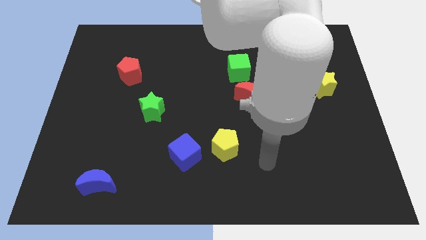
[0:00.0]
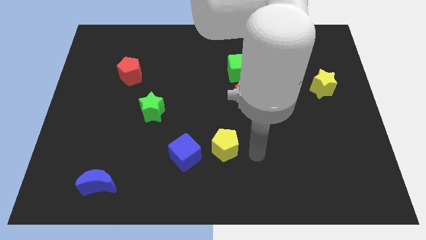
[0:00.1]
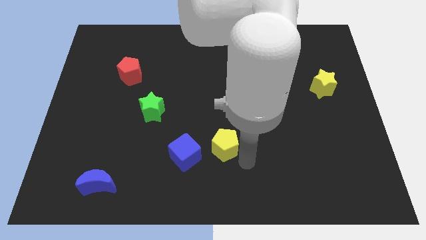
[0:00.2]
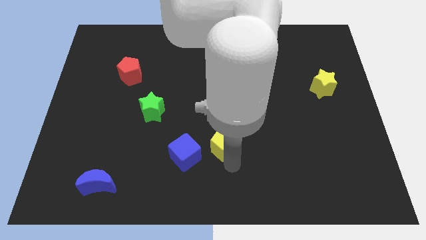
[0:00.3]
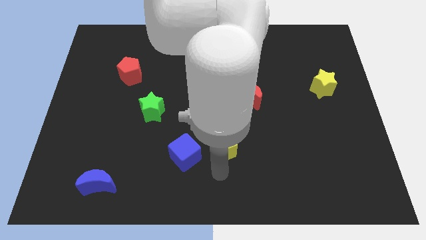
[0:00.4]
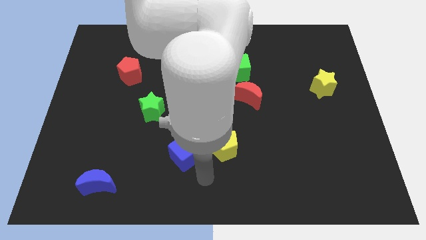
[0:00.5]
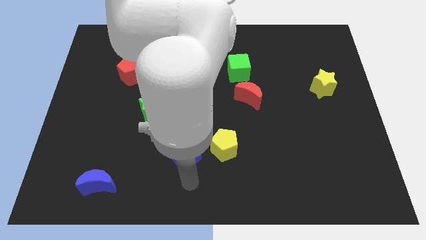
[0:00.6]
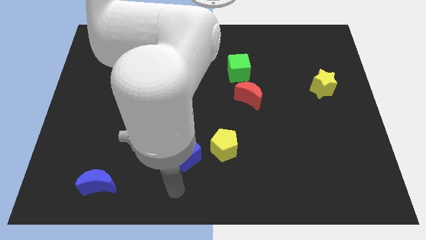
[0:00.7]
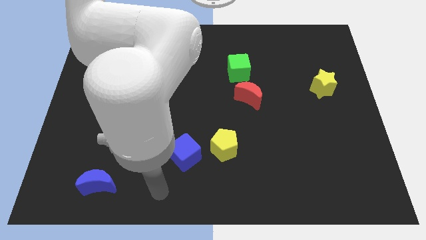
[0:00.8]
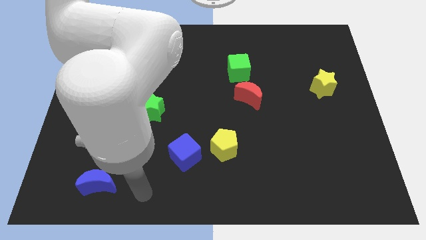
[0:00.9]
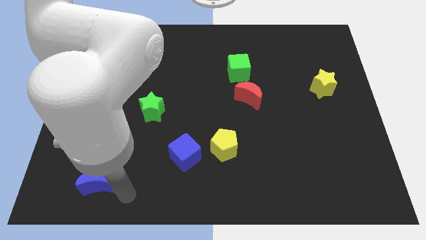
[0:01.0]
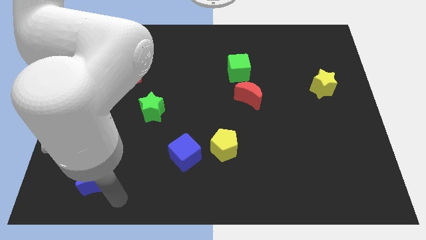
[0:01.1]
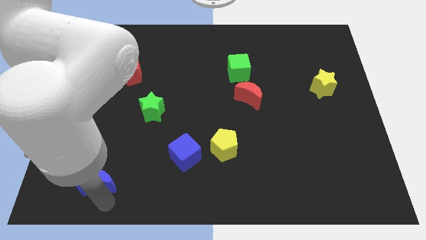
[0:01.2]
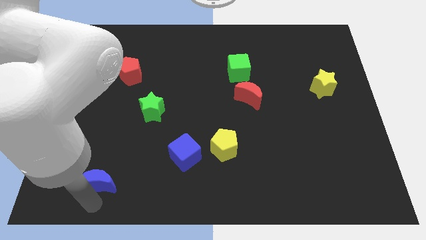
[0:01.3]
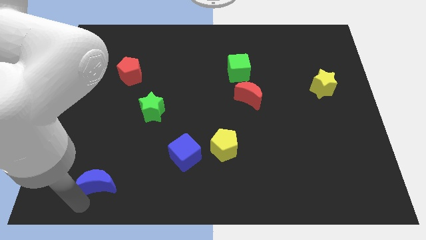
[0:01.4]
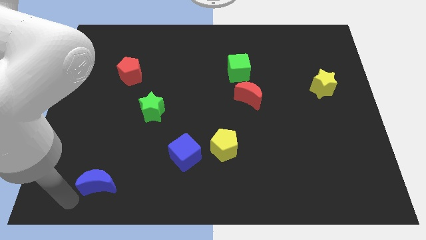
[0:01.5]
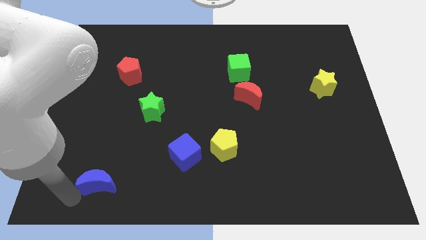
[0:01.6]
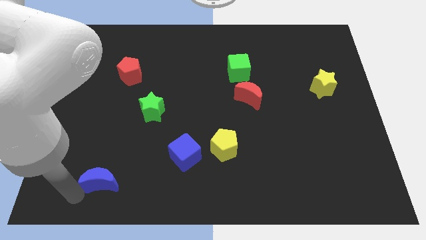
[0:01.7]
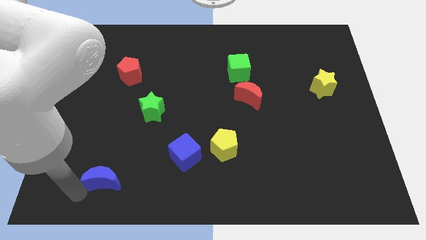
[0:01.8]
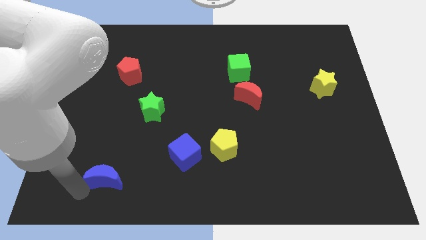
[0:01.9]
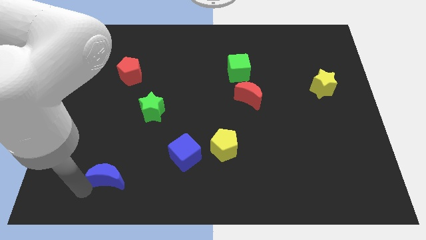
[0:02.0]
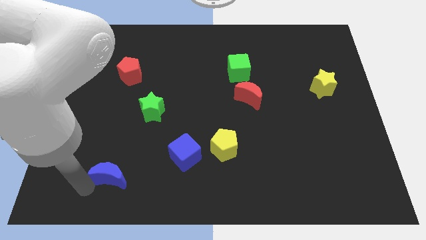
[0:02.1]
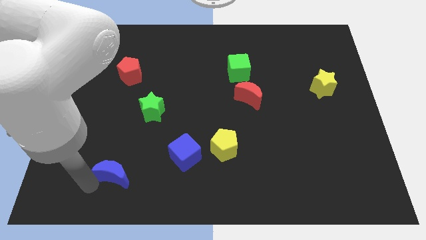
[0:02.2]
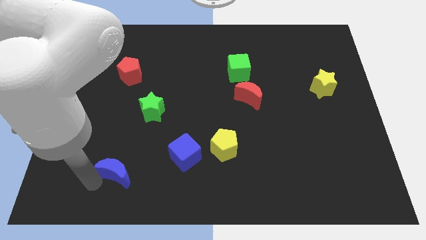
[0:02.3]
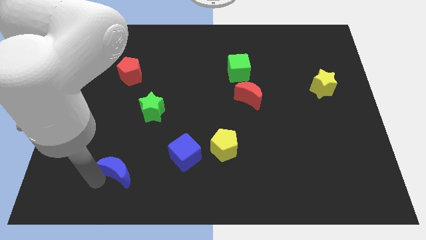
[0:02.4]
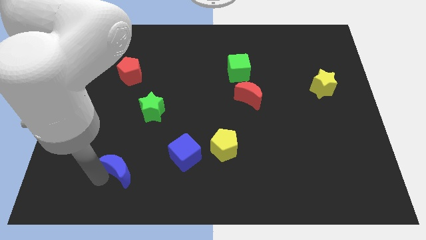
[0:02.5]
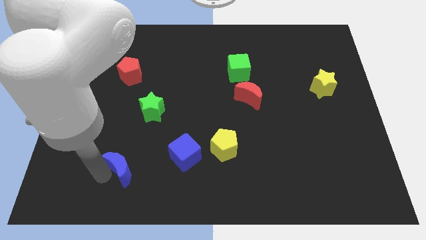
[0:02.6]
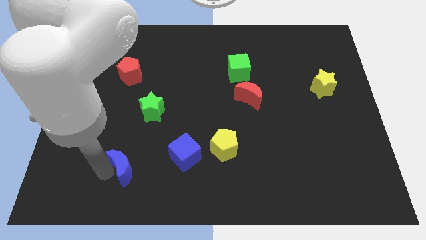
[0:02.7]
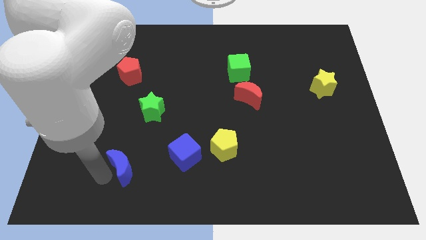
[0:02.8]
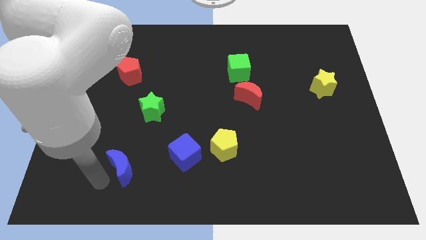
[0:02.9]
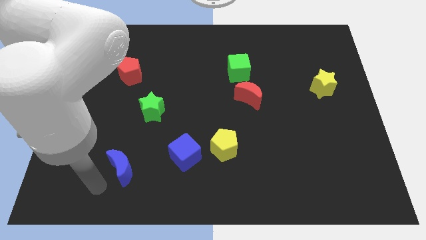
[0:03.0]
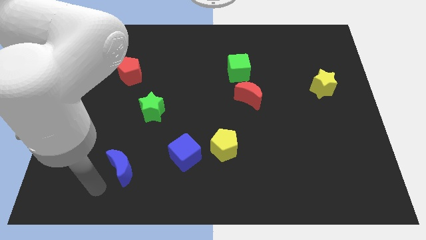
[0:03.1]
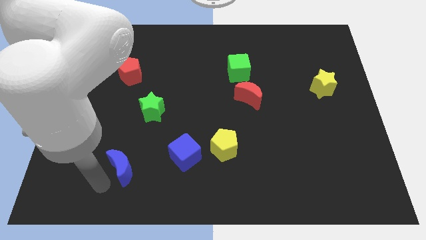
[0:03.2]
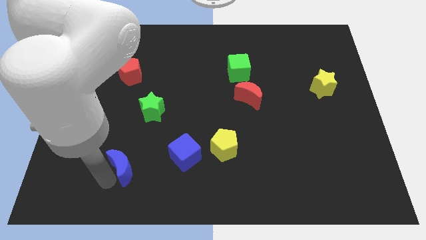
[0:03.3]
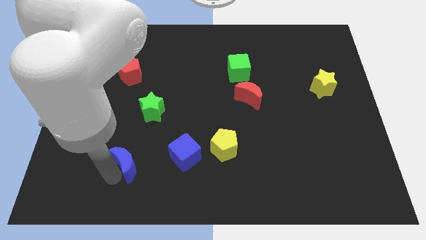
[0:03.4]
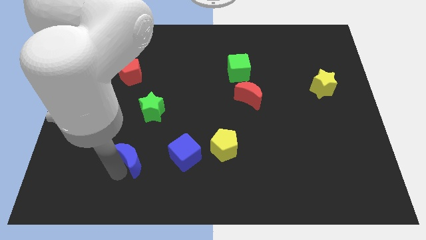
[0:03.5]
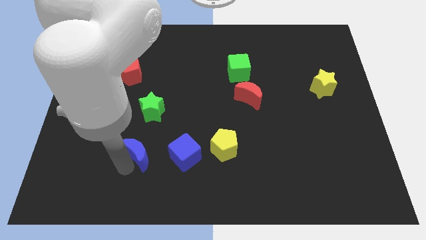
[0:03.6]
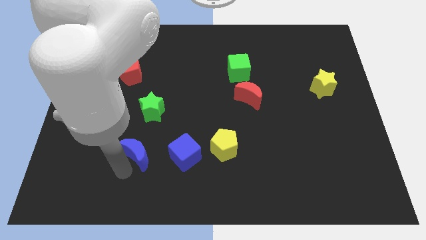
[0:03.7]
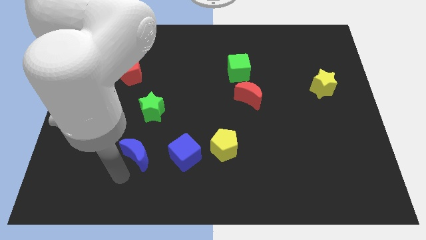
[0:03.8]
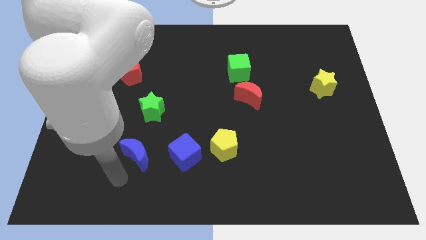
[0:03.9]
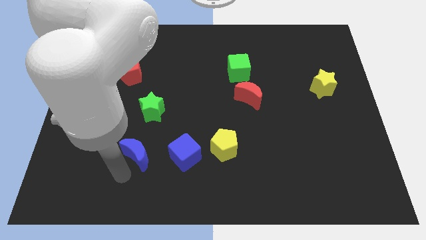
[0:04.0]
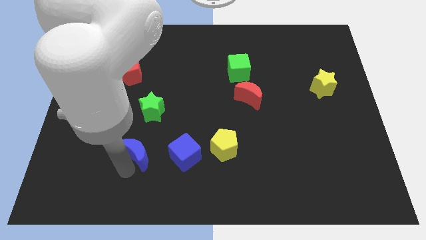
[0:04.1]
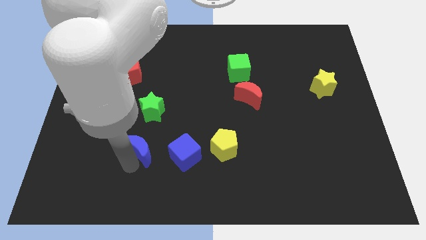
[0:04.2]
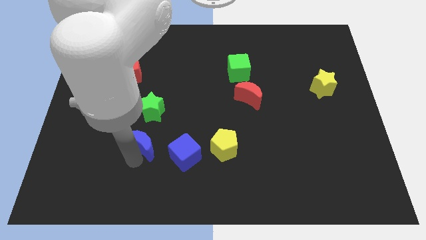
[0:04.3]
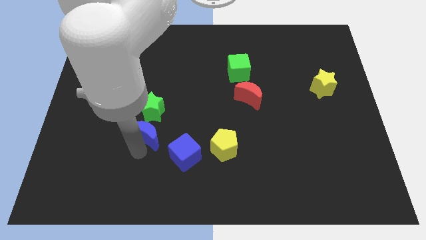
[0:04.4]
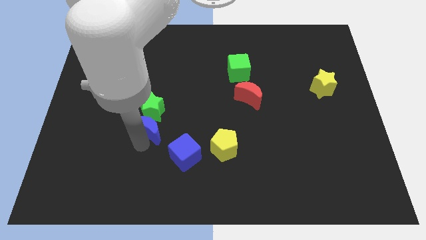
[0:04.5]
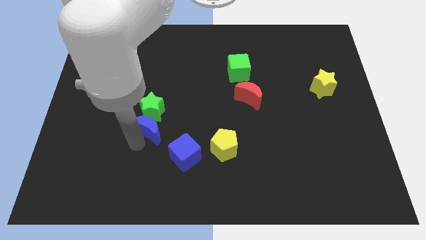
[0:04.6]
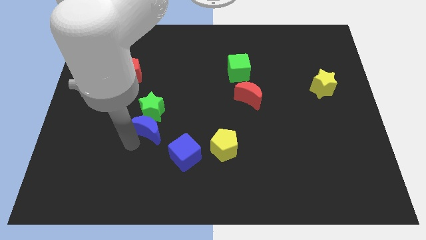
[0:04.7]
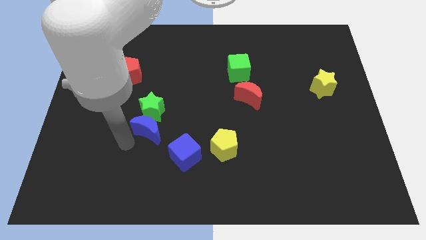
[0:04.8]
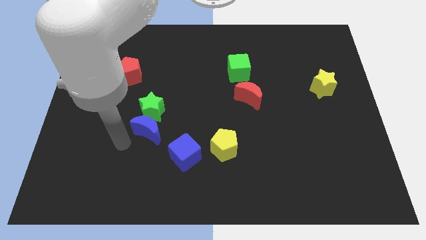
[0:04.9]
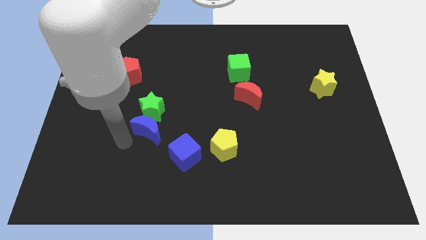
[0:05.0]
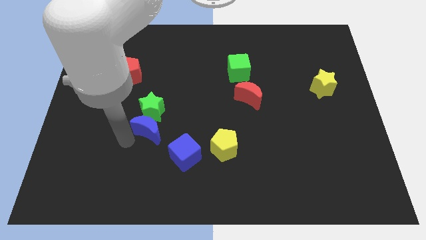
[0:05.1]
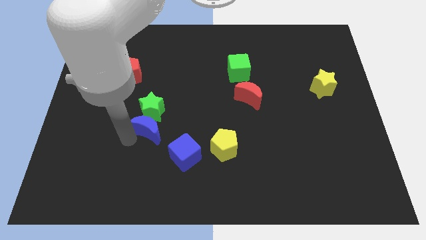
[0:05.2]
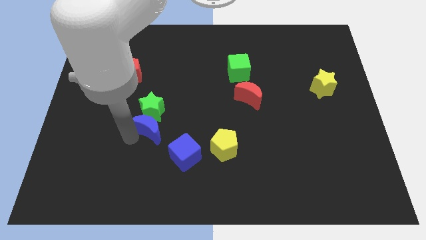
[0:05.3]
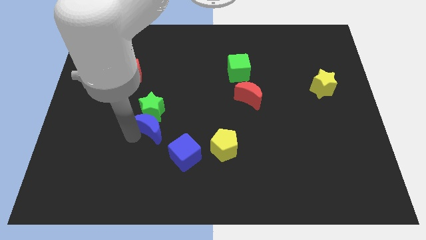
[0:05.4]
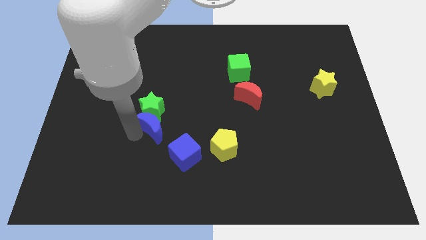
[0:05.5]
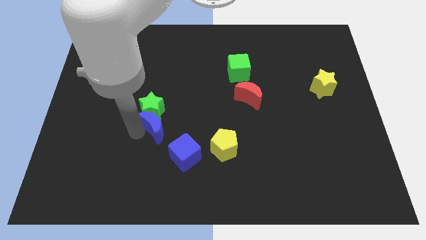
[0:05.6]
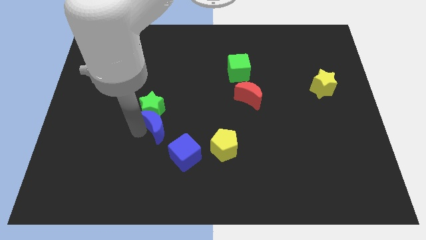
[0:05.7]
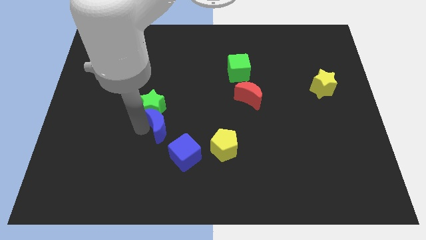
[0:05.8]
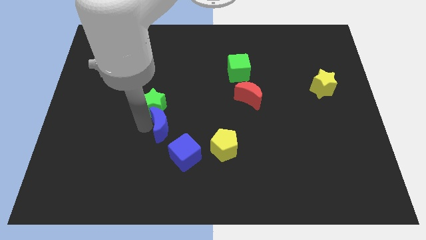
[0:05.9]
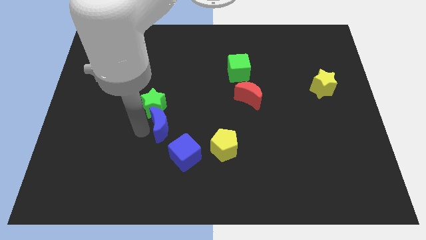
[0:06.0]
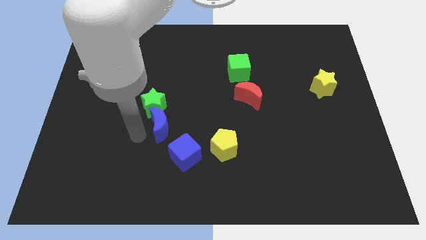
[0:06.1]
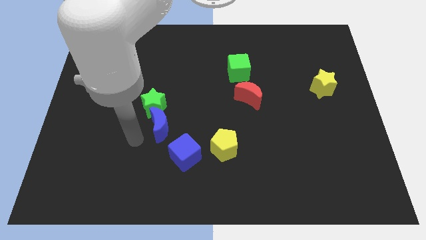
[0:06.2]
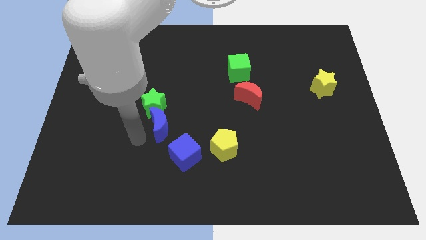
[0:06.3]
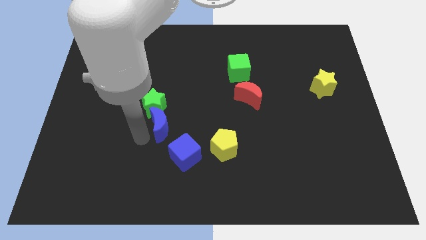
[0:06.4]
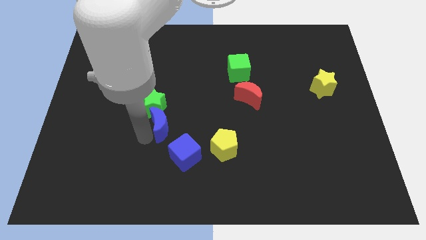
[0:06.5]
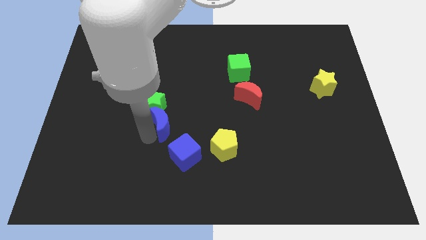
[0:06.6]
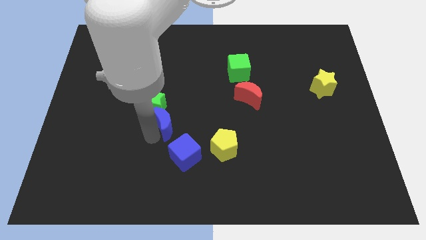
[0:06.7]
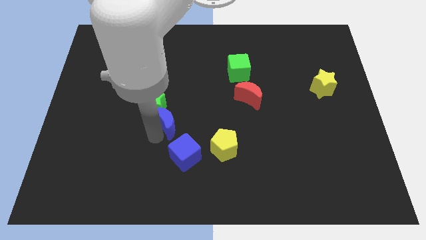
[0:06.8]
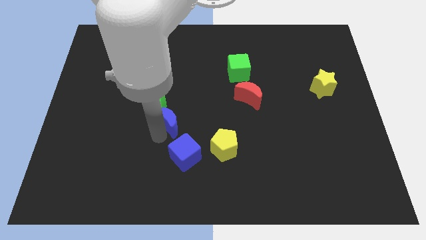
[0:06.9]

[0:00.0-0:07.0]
slide the blue moon up and then right

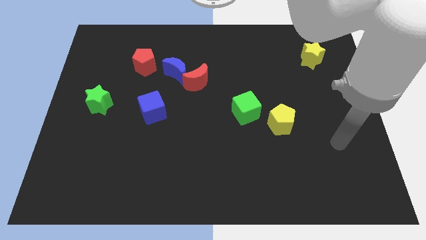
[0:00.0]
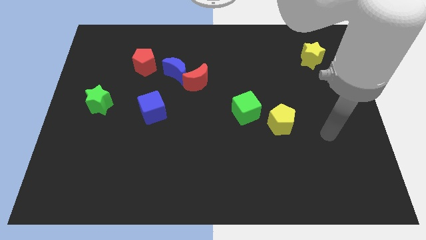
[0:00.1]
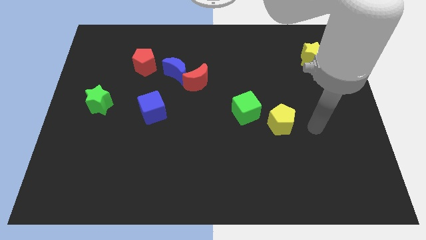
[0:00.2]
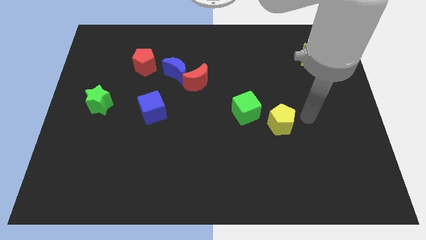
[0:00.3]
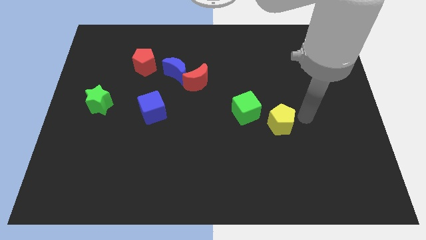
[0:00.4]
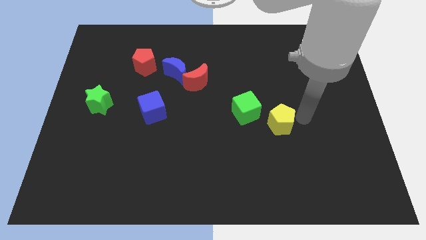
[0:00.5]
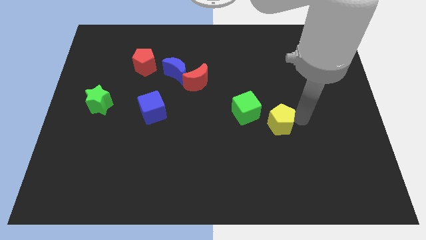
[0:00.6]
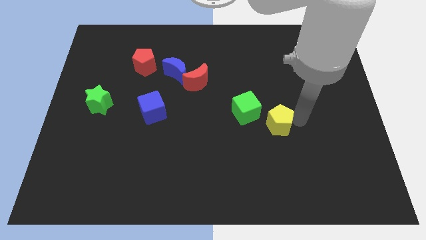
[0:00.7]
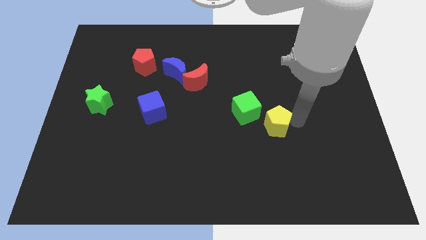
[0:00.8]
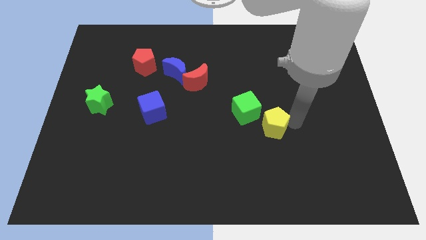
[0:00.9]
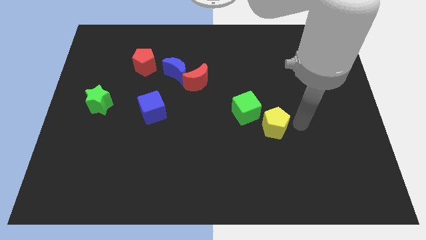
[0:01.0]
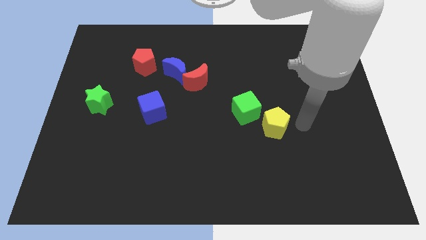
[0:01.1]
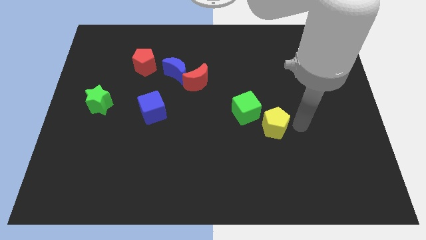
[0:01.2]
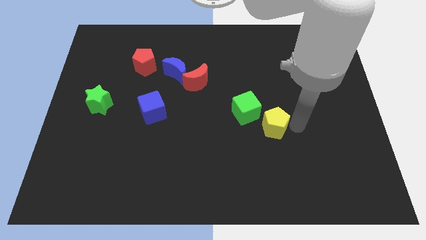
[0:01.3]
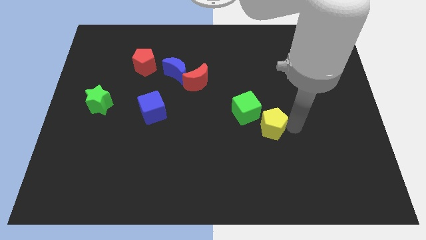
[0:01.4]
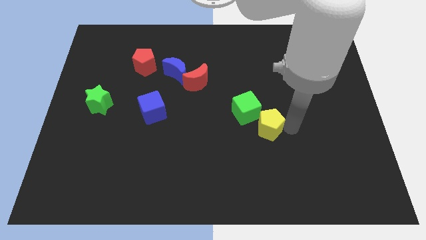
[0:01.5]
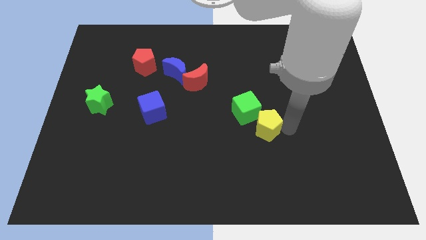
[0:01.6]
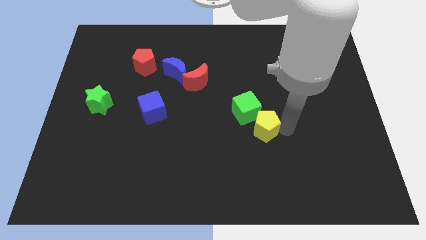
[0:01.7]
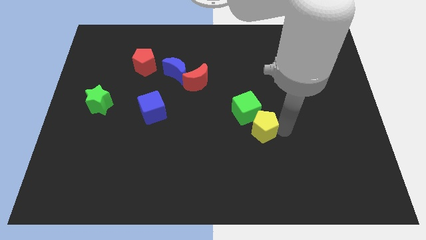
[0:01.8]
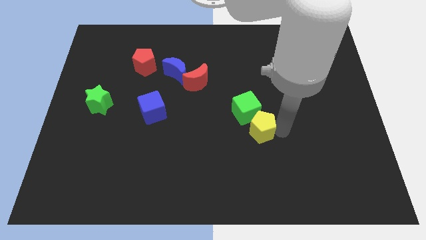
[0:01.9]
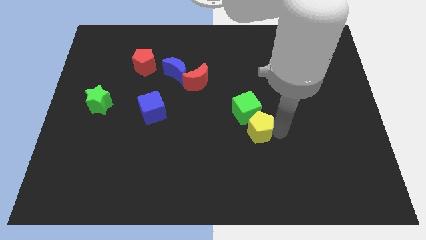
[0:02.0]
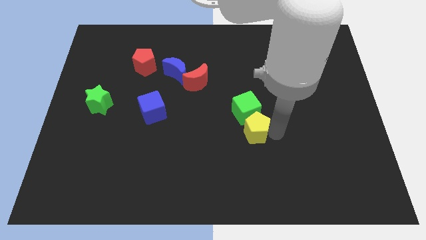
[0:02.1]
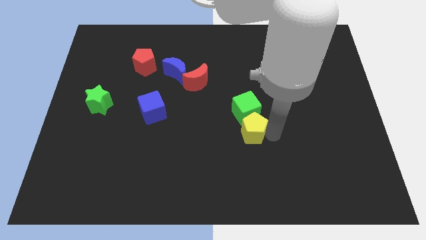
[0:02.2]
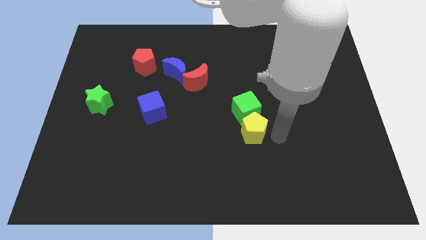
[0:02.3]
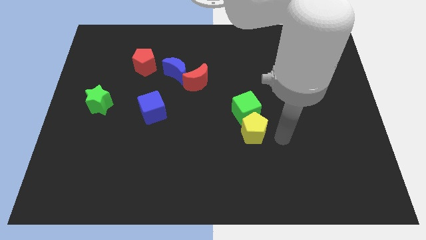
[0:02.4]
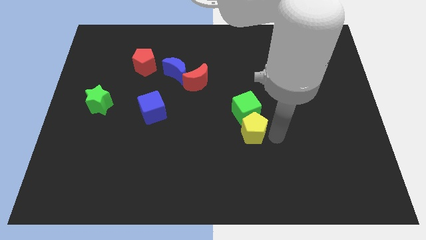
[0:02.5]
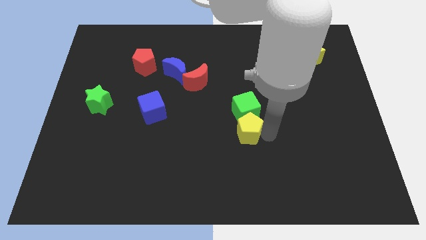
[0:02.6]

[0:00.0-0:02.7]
push the yellow pentagon slightly to the left
